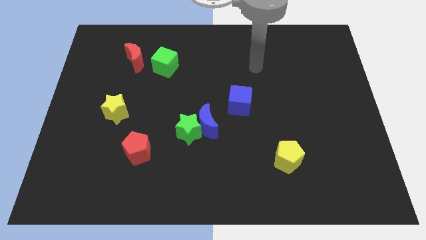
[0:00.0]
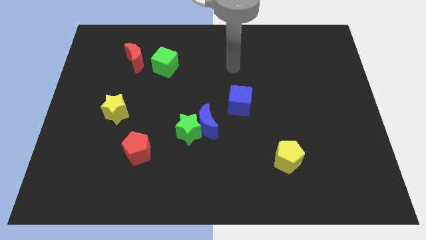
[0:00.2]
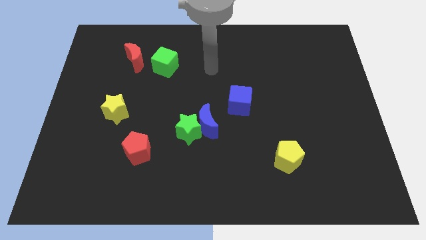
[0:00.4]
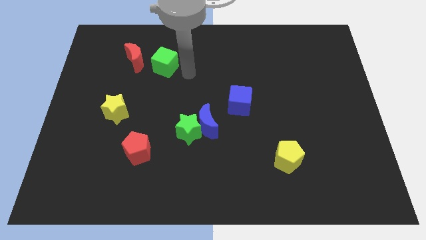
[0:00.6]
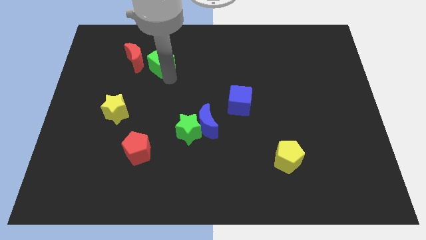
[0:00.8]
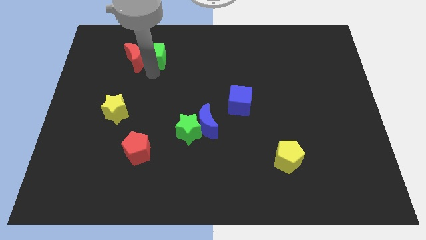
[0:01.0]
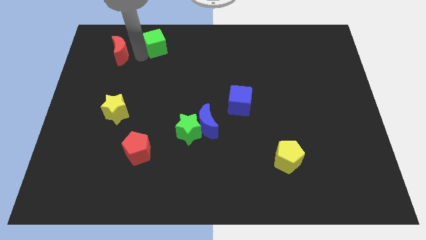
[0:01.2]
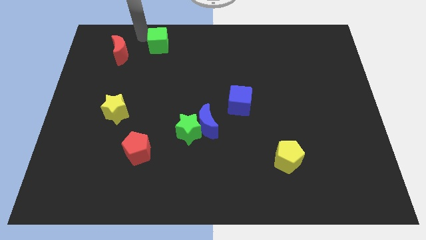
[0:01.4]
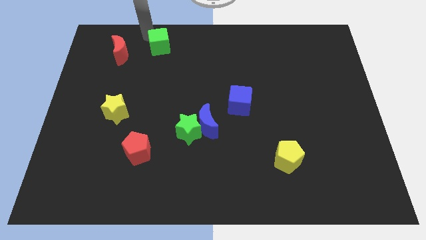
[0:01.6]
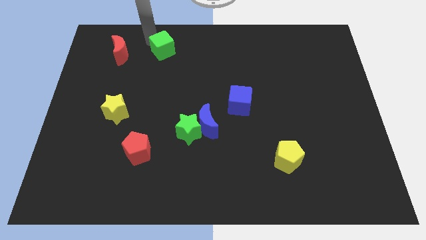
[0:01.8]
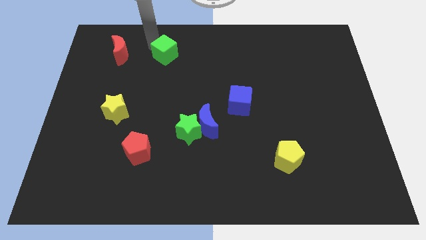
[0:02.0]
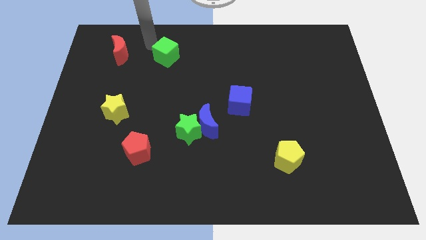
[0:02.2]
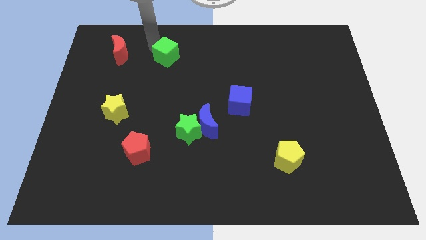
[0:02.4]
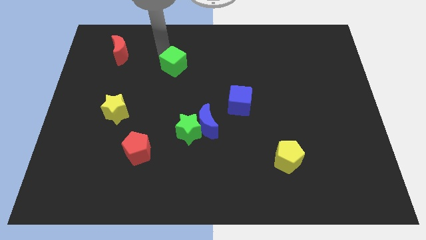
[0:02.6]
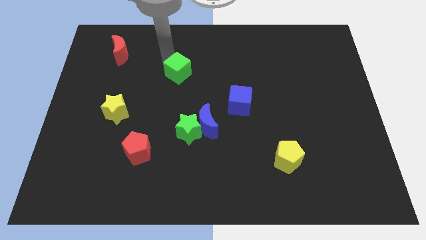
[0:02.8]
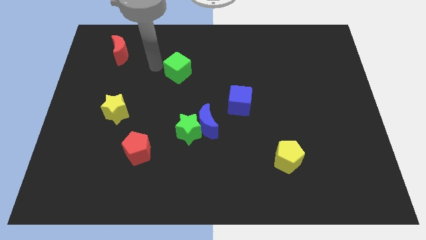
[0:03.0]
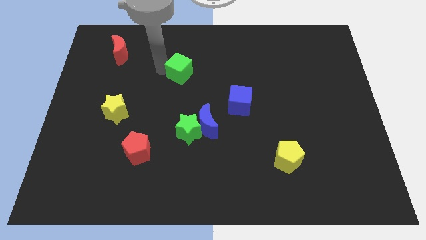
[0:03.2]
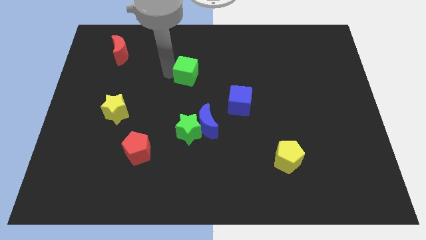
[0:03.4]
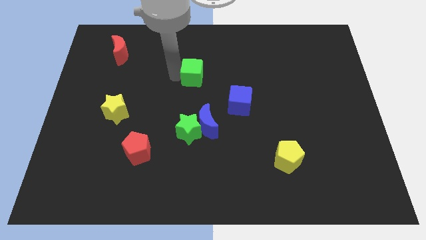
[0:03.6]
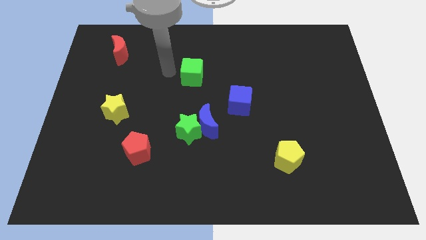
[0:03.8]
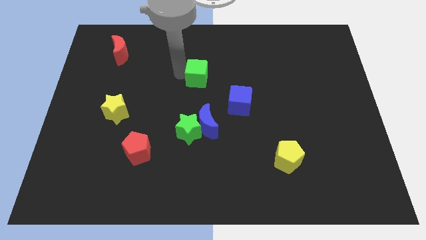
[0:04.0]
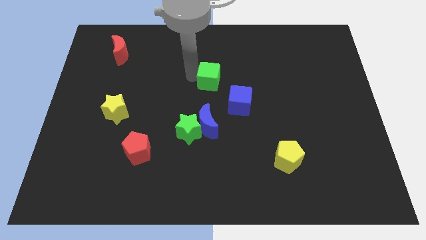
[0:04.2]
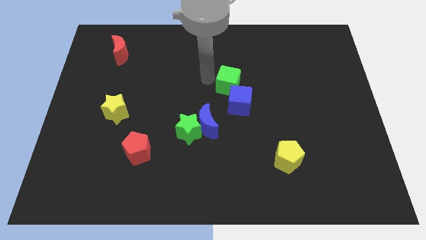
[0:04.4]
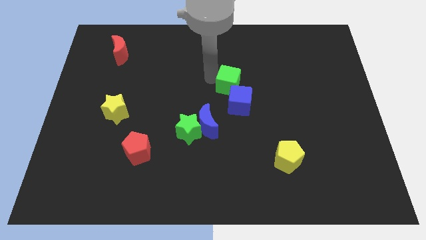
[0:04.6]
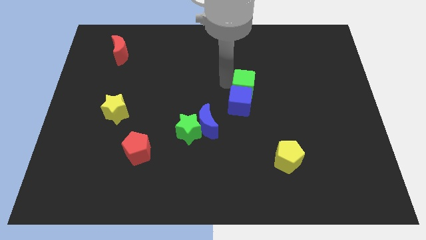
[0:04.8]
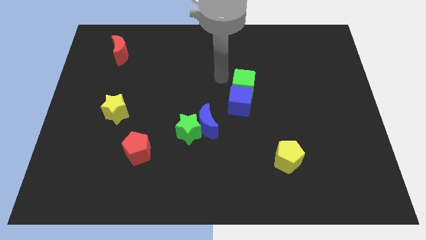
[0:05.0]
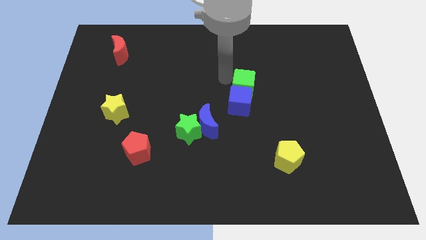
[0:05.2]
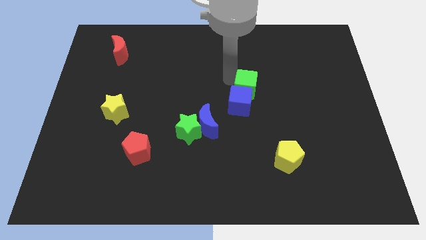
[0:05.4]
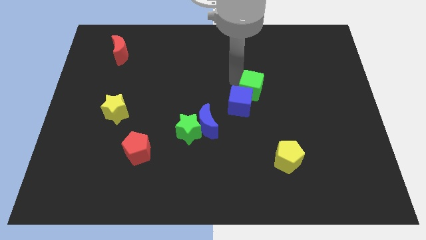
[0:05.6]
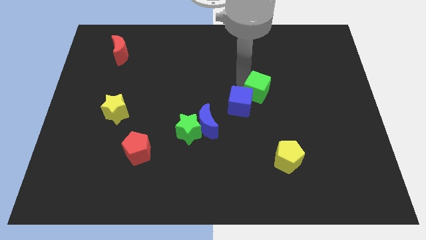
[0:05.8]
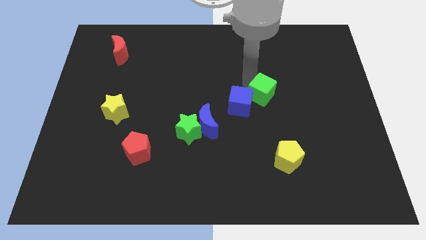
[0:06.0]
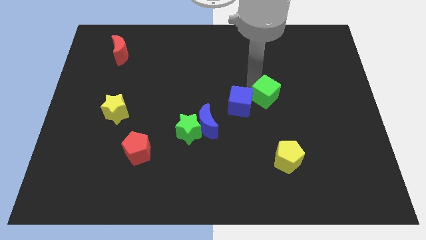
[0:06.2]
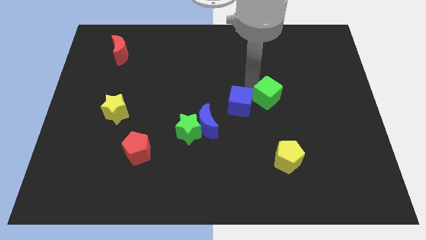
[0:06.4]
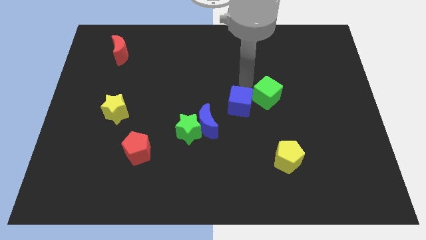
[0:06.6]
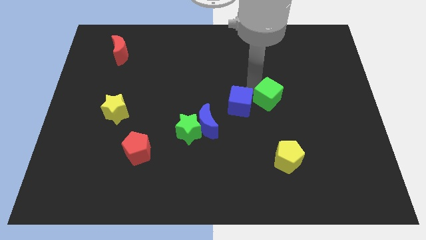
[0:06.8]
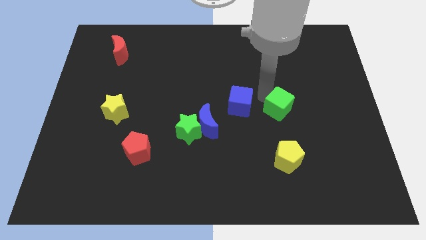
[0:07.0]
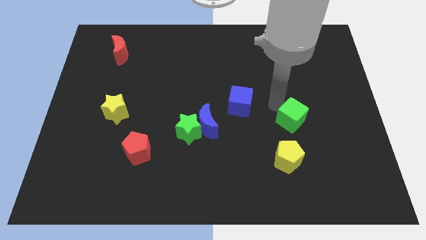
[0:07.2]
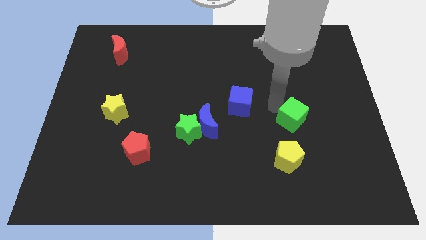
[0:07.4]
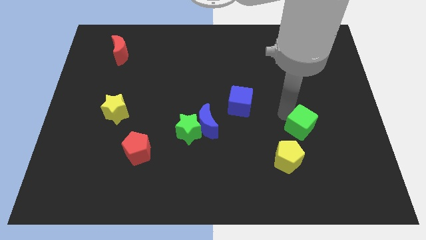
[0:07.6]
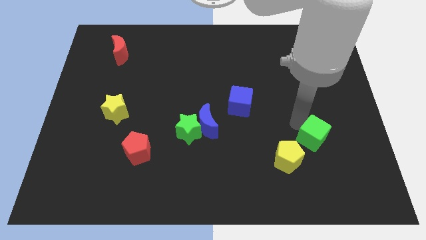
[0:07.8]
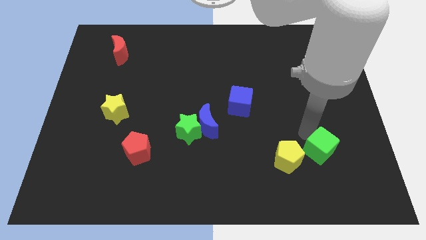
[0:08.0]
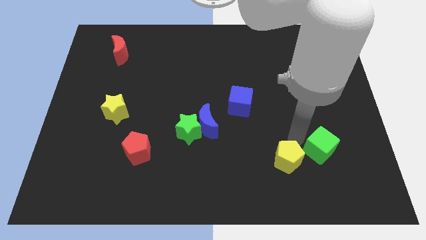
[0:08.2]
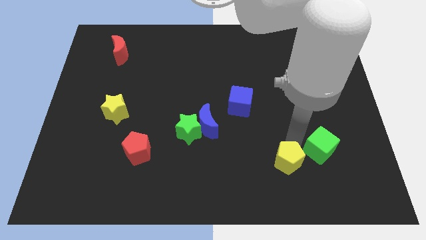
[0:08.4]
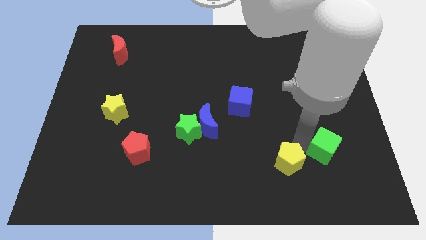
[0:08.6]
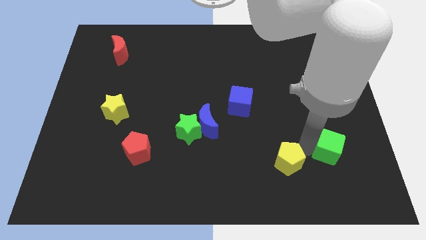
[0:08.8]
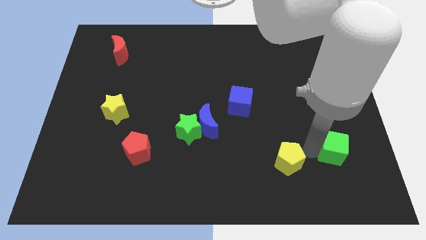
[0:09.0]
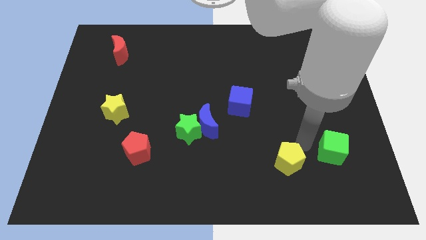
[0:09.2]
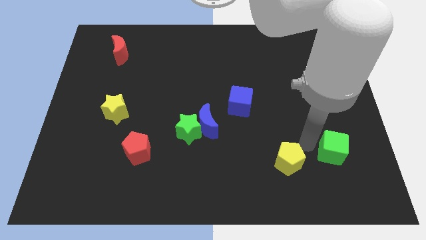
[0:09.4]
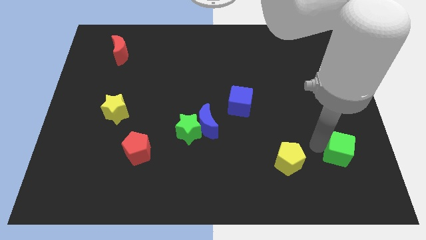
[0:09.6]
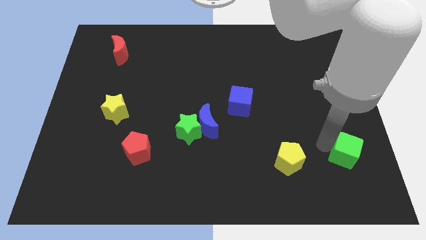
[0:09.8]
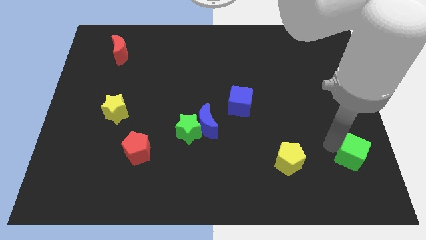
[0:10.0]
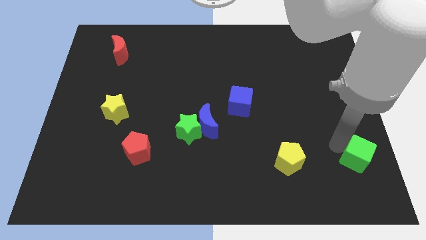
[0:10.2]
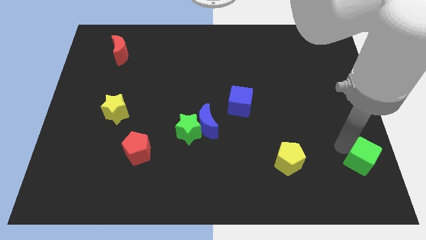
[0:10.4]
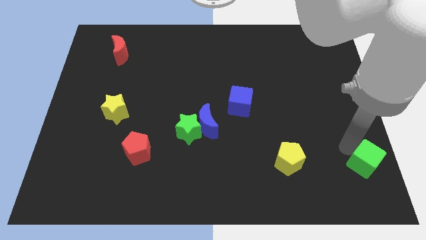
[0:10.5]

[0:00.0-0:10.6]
put the green cube to the lower right corner
